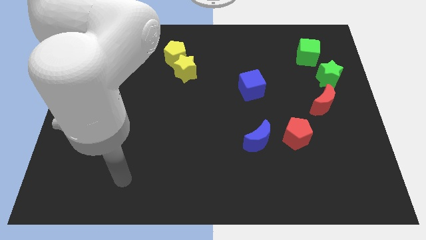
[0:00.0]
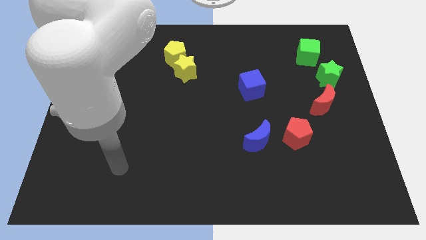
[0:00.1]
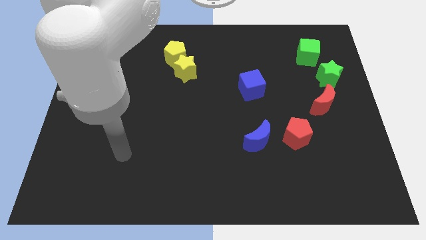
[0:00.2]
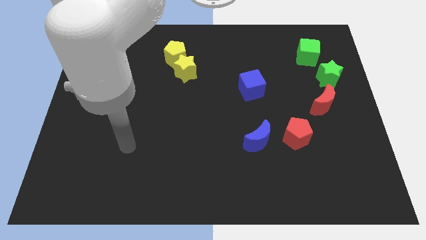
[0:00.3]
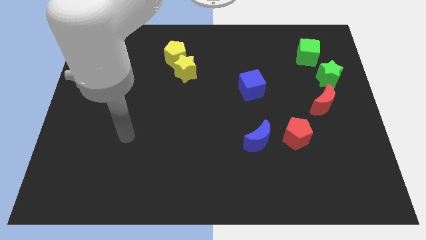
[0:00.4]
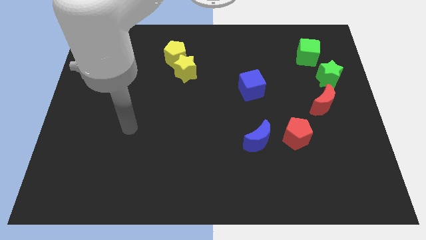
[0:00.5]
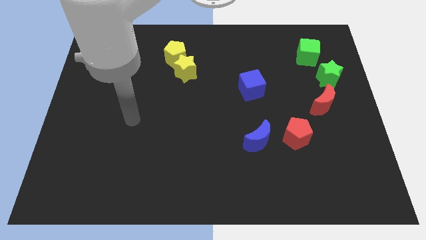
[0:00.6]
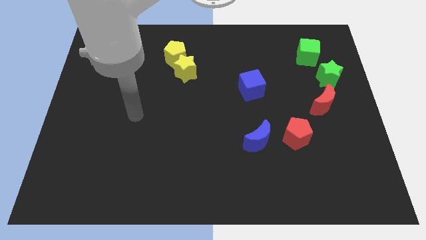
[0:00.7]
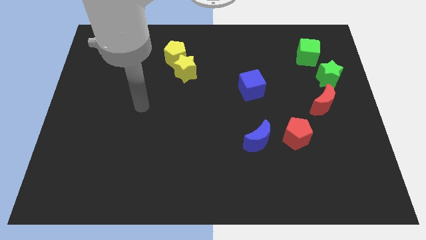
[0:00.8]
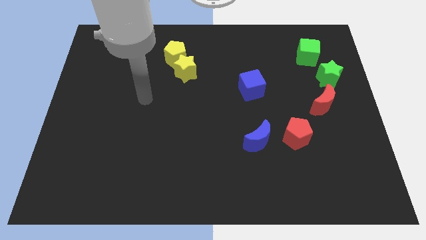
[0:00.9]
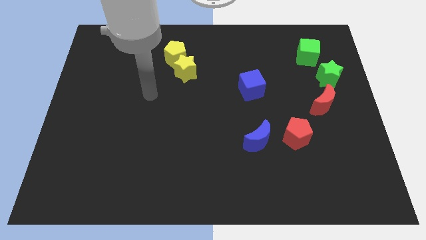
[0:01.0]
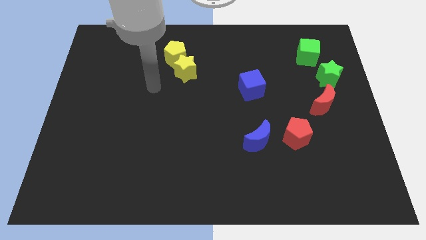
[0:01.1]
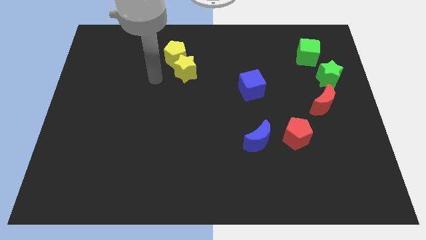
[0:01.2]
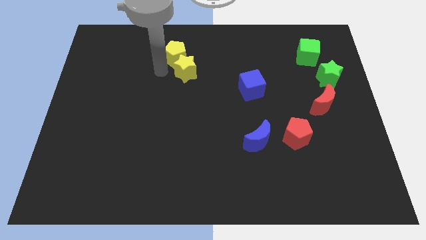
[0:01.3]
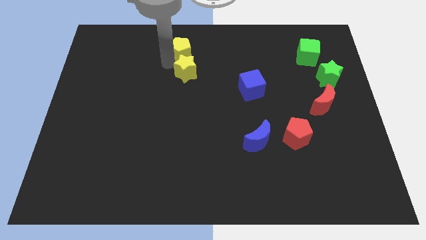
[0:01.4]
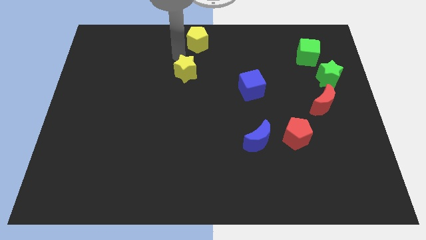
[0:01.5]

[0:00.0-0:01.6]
separate the yellow star from the yellow pentagon

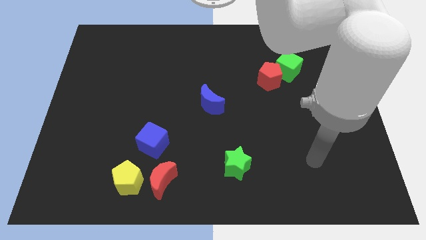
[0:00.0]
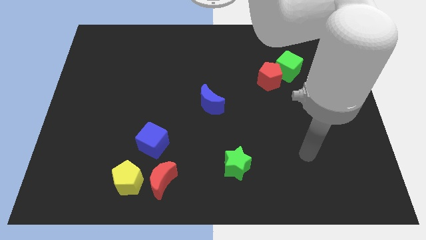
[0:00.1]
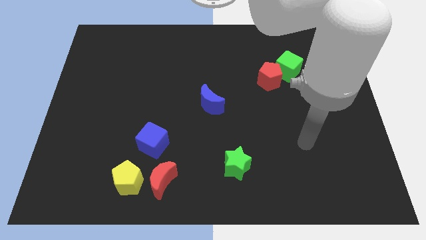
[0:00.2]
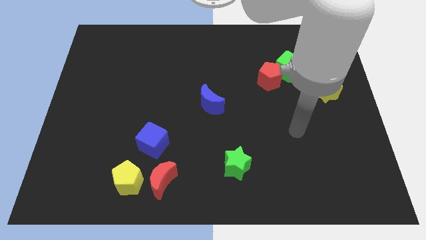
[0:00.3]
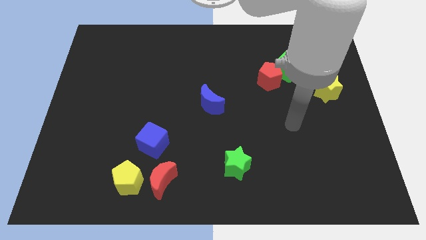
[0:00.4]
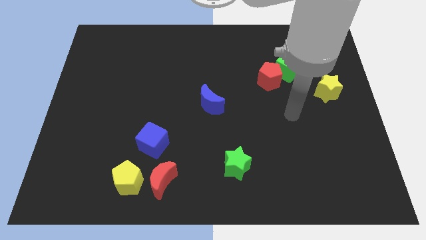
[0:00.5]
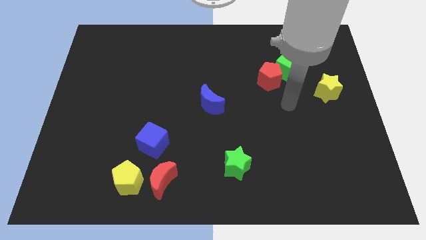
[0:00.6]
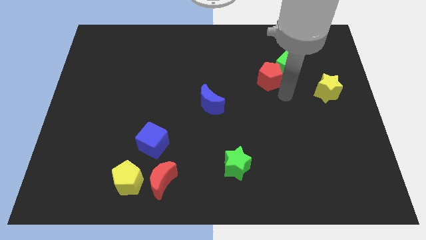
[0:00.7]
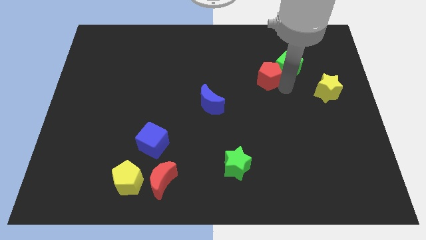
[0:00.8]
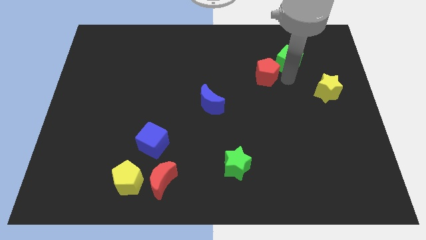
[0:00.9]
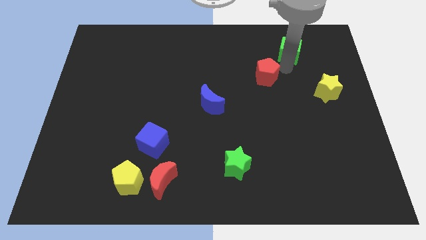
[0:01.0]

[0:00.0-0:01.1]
pull the red pentagon apart from the green cube

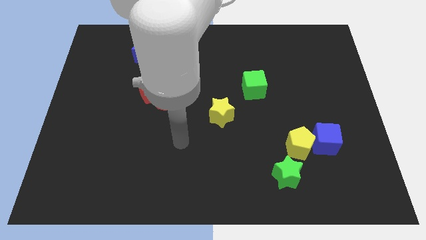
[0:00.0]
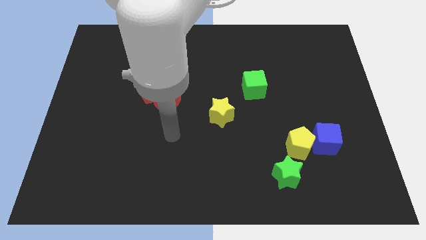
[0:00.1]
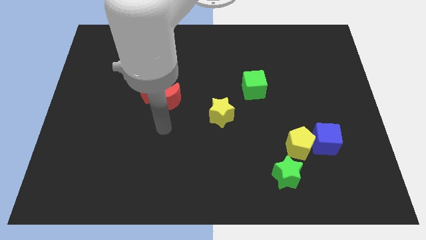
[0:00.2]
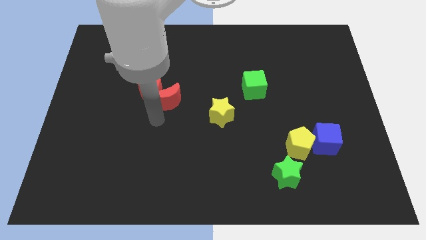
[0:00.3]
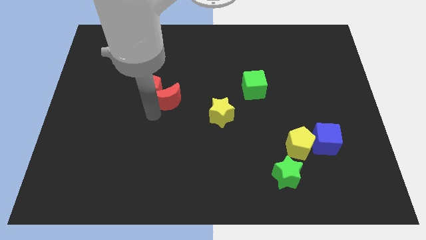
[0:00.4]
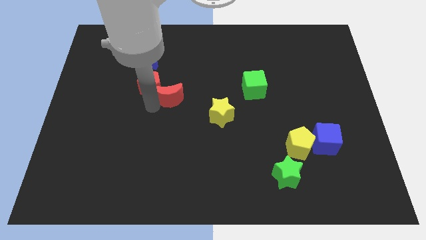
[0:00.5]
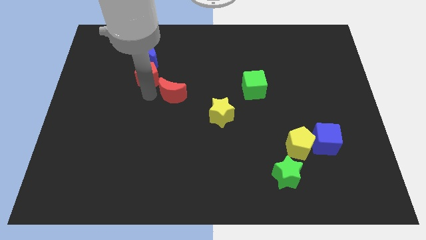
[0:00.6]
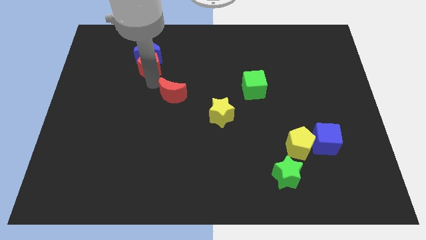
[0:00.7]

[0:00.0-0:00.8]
pull the red moon apart from the red pentagon

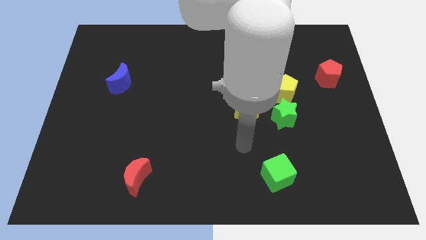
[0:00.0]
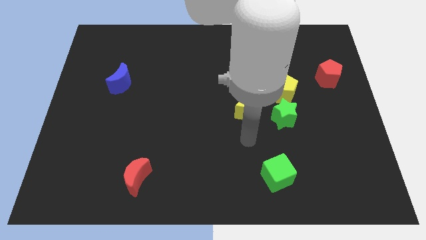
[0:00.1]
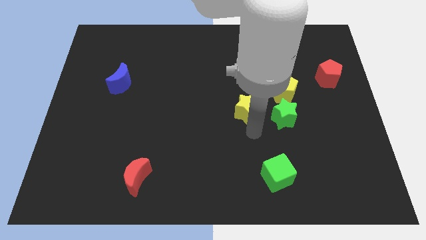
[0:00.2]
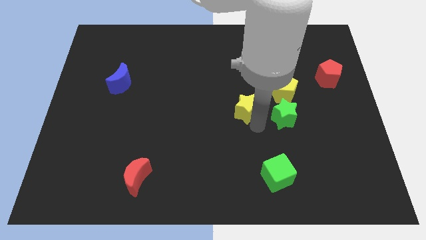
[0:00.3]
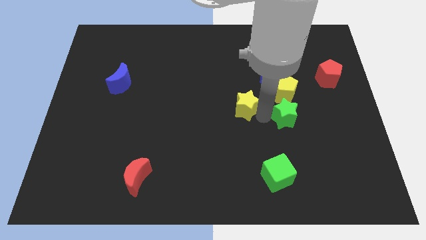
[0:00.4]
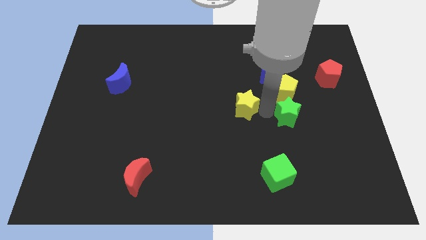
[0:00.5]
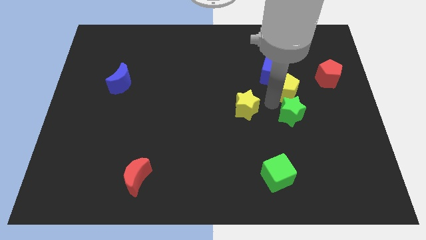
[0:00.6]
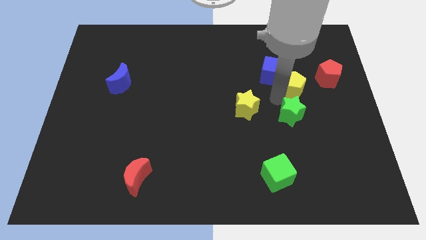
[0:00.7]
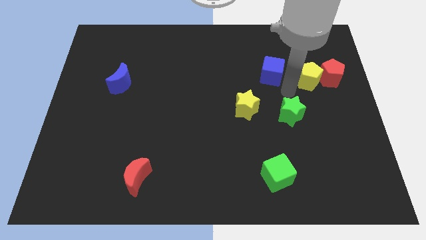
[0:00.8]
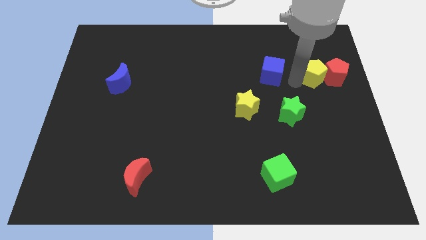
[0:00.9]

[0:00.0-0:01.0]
pull the blue cube apart from the yellow pentagon

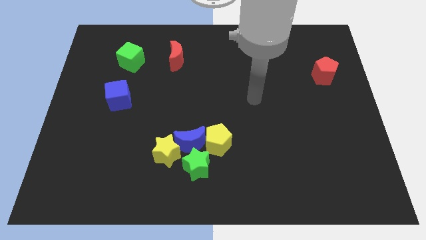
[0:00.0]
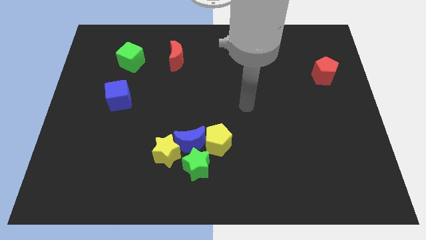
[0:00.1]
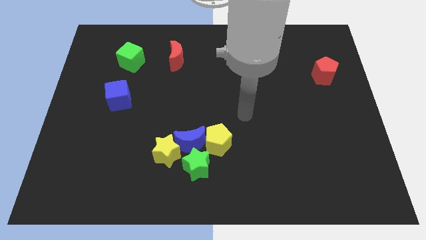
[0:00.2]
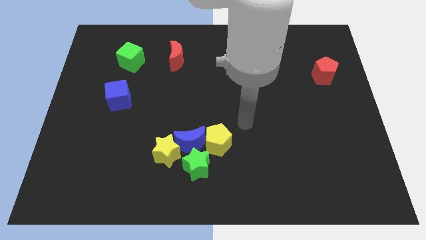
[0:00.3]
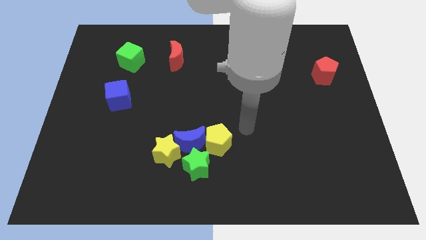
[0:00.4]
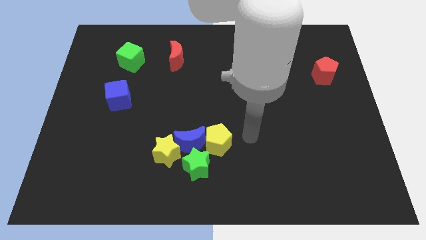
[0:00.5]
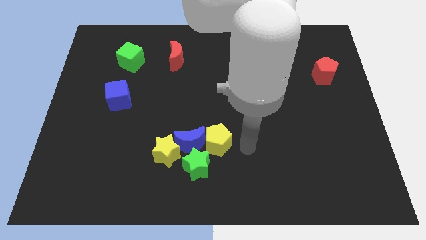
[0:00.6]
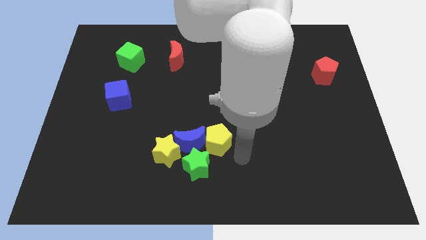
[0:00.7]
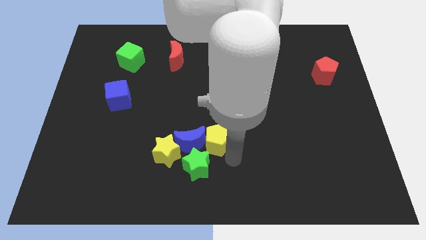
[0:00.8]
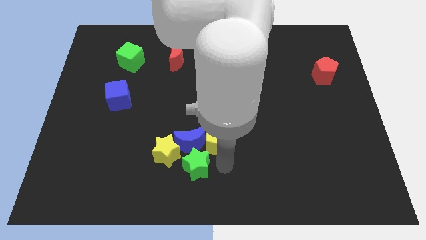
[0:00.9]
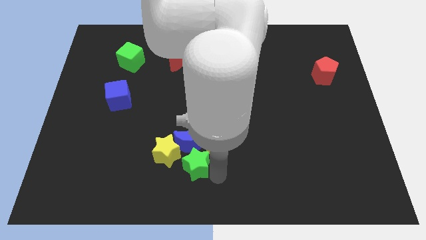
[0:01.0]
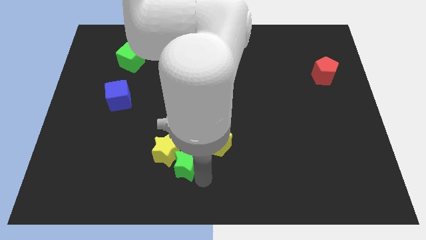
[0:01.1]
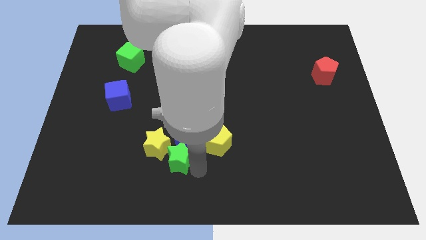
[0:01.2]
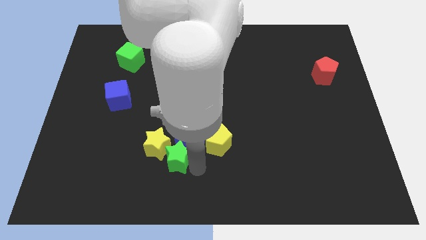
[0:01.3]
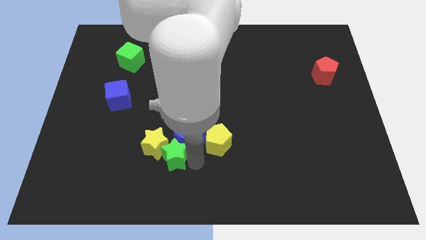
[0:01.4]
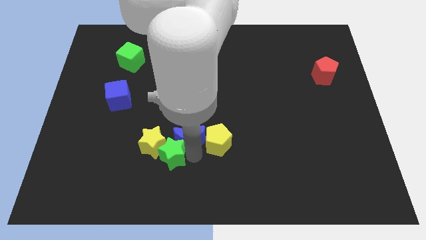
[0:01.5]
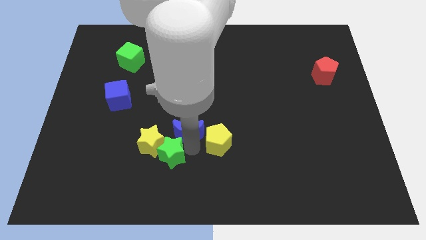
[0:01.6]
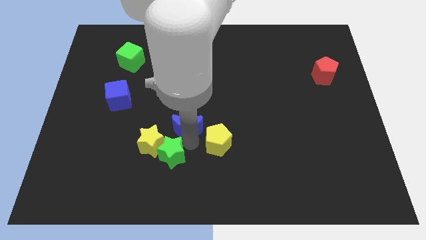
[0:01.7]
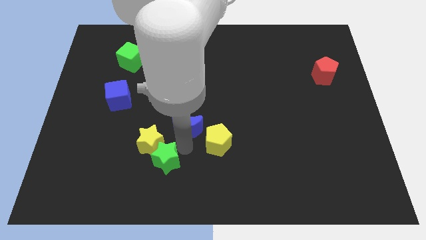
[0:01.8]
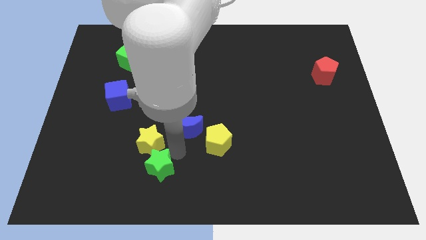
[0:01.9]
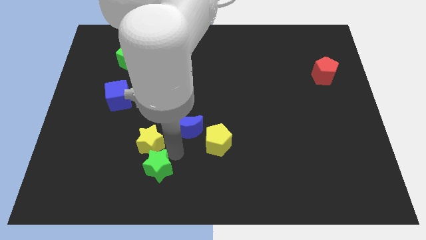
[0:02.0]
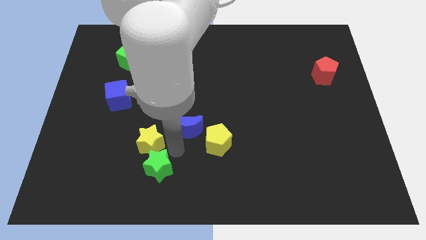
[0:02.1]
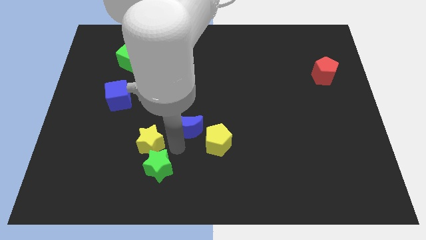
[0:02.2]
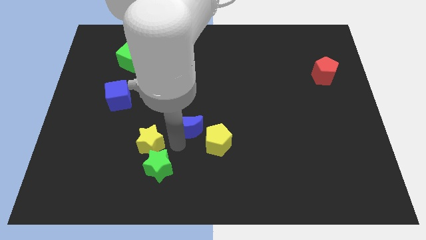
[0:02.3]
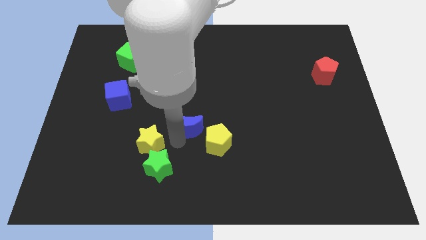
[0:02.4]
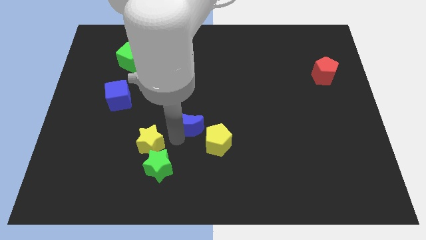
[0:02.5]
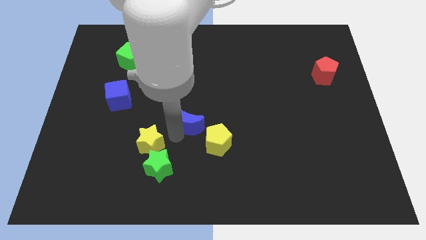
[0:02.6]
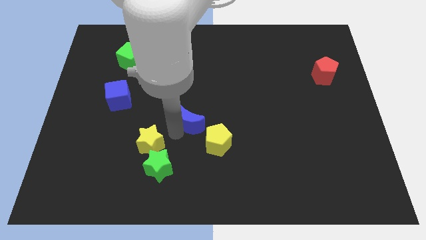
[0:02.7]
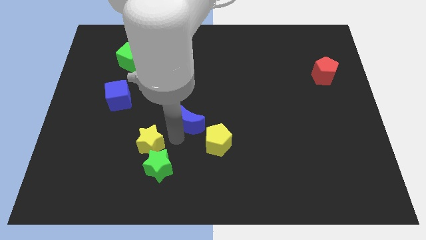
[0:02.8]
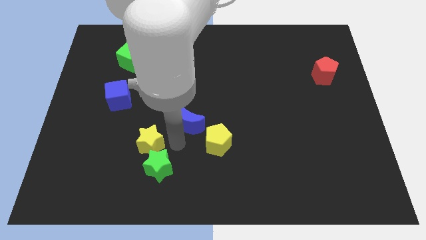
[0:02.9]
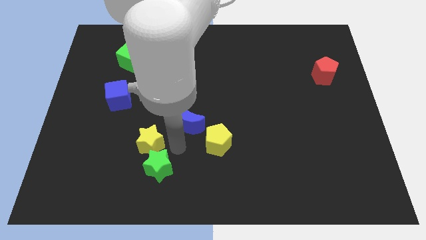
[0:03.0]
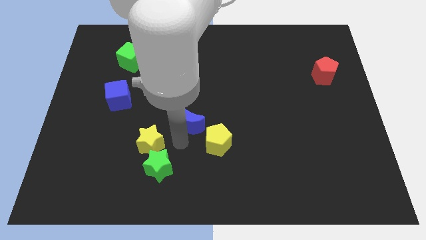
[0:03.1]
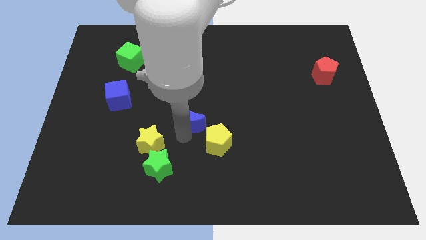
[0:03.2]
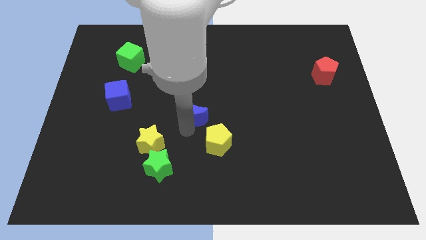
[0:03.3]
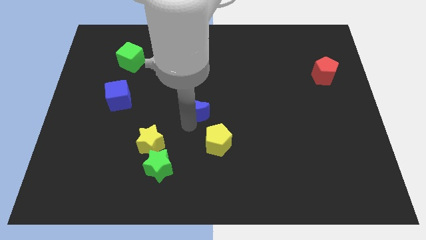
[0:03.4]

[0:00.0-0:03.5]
move the blue moon away from the group of blocks

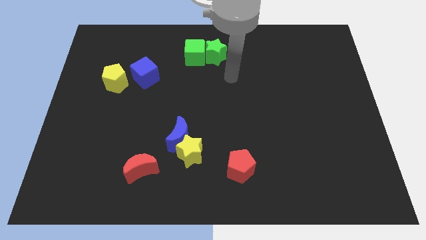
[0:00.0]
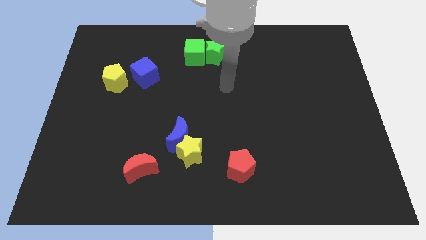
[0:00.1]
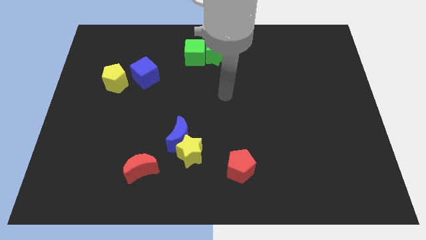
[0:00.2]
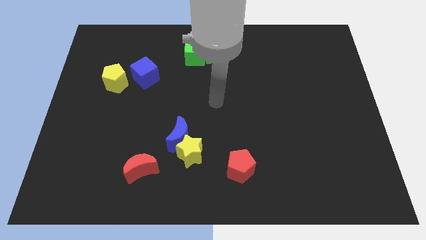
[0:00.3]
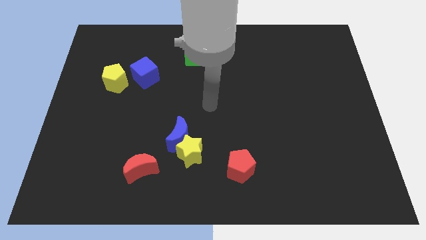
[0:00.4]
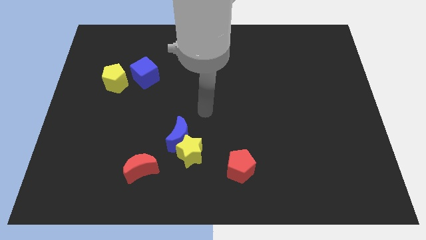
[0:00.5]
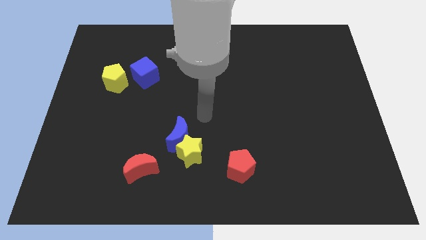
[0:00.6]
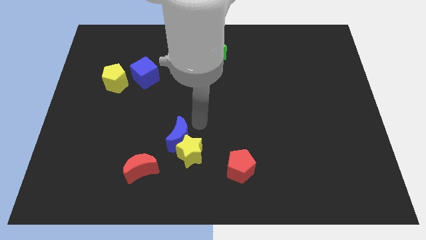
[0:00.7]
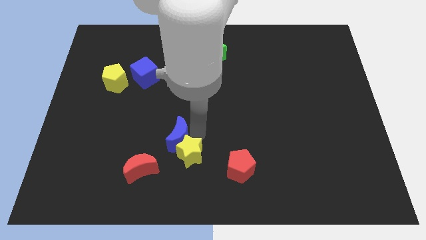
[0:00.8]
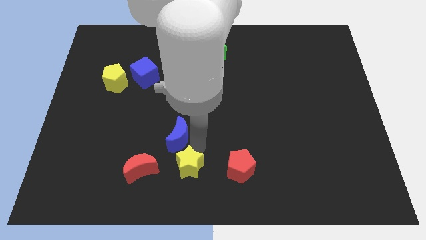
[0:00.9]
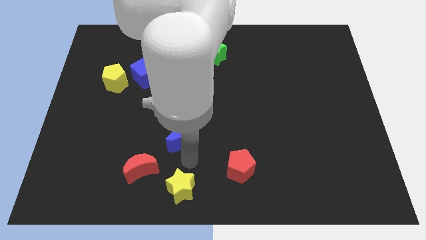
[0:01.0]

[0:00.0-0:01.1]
pull the blue moon apart from the yellow star

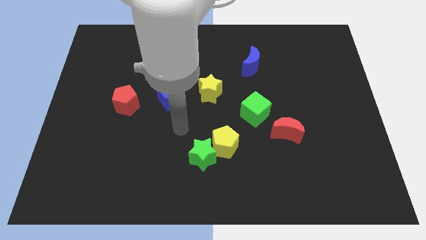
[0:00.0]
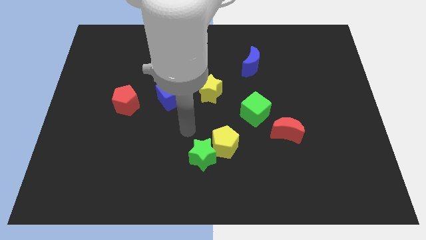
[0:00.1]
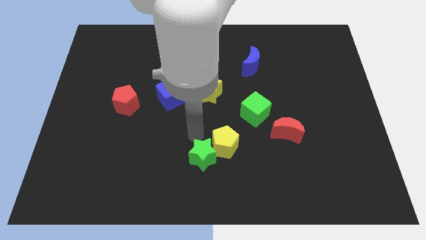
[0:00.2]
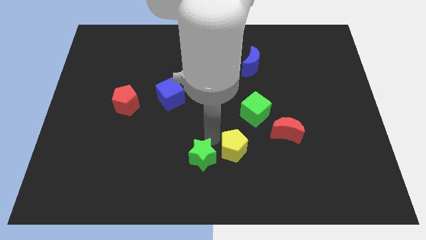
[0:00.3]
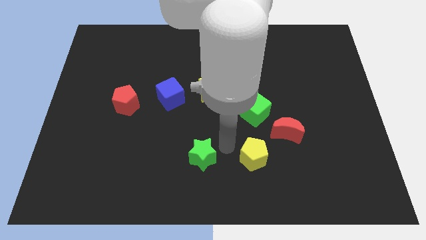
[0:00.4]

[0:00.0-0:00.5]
separate the green star from the yellow pentagon
